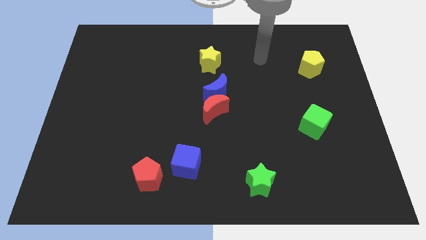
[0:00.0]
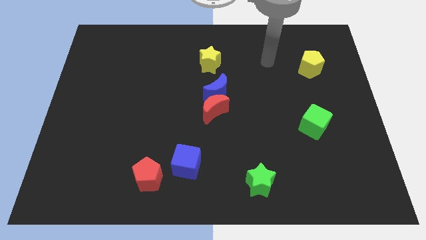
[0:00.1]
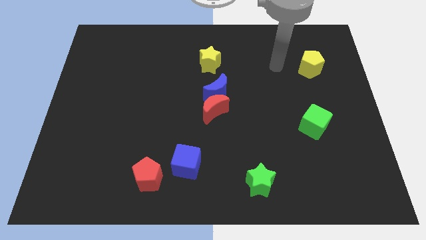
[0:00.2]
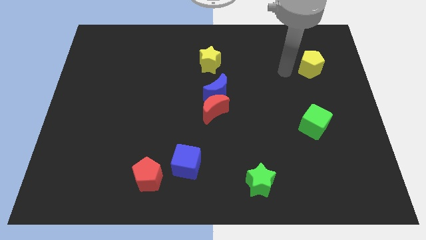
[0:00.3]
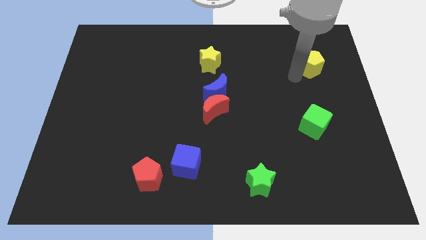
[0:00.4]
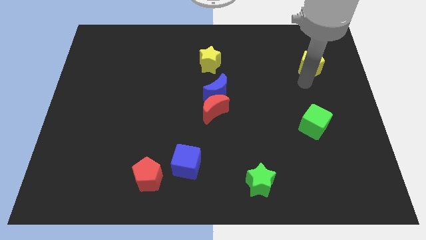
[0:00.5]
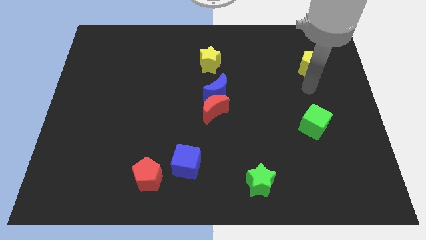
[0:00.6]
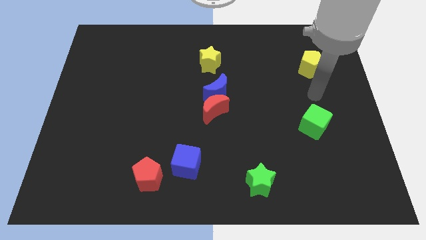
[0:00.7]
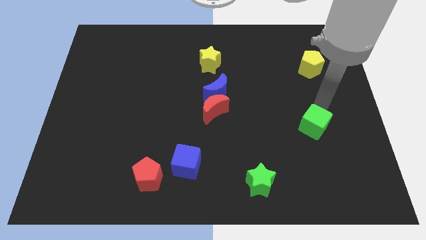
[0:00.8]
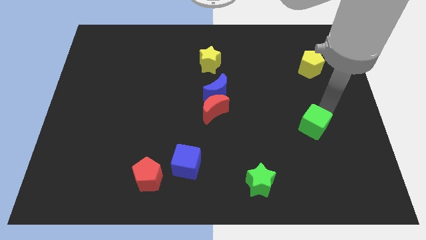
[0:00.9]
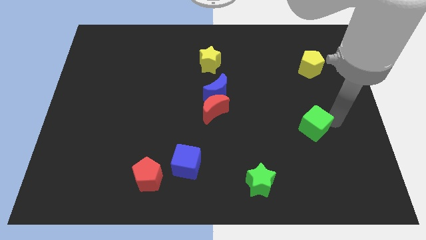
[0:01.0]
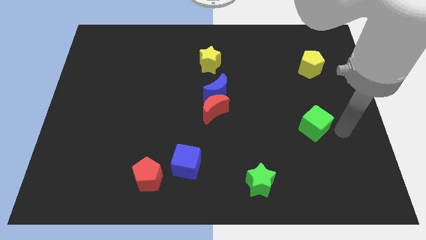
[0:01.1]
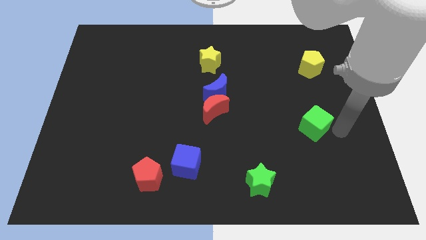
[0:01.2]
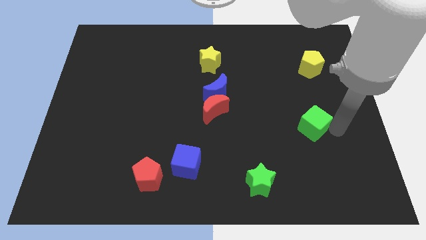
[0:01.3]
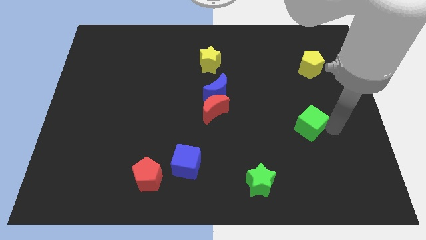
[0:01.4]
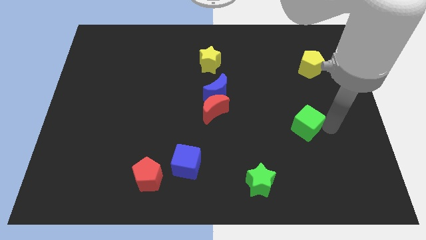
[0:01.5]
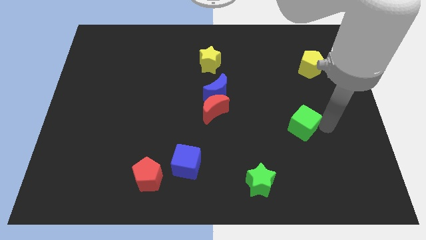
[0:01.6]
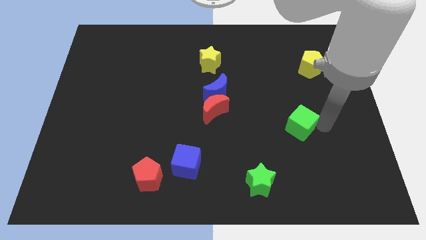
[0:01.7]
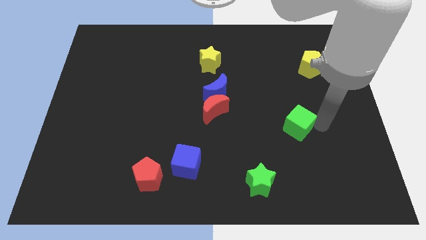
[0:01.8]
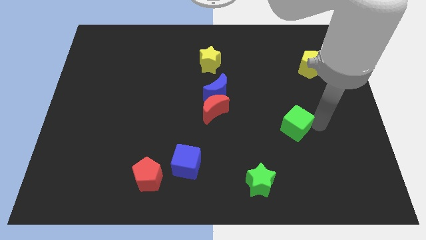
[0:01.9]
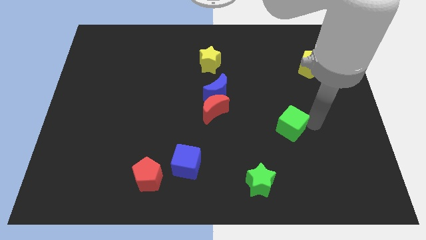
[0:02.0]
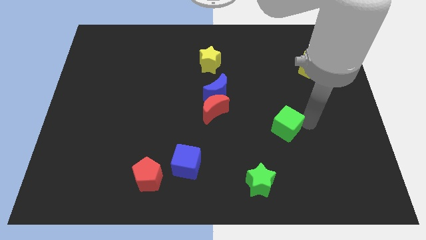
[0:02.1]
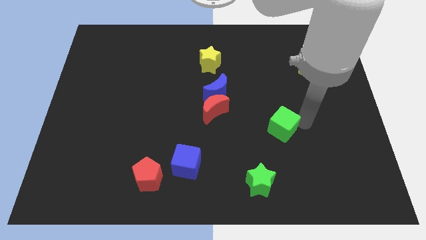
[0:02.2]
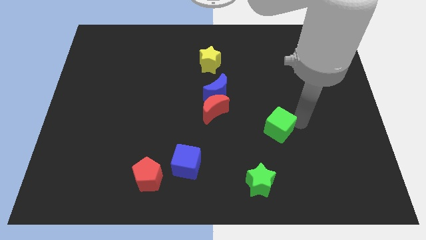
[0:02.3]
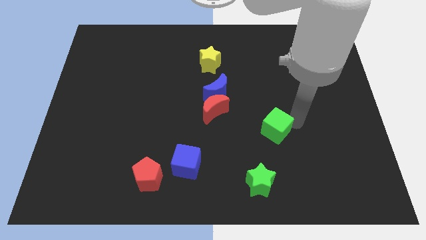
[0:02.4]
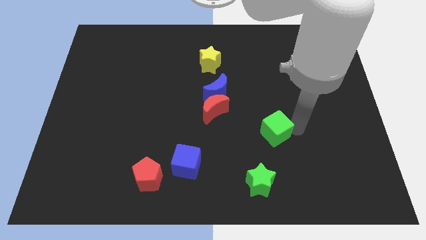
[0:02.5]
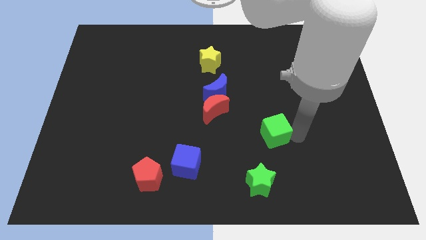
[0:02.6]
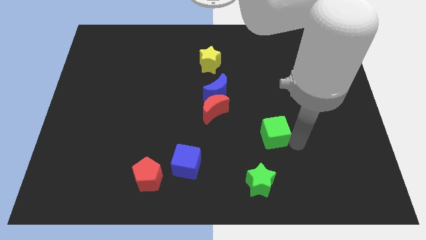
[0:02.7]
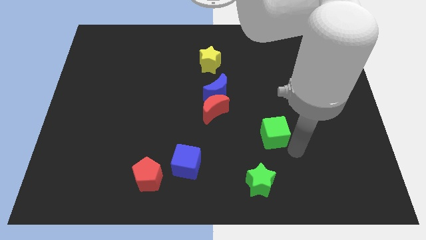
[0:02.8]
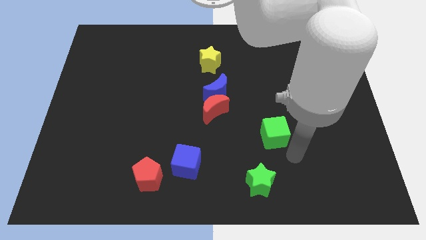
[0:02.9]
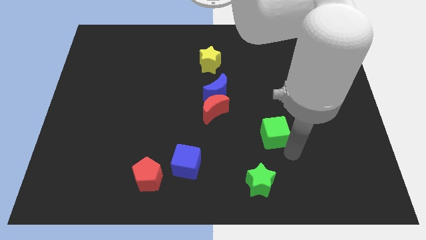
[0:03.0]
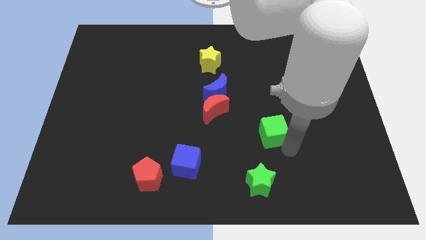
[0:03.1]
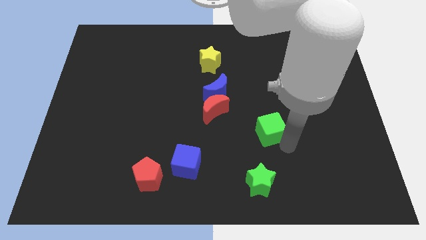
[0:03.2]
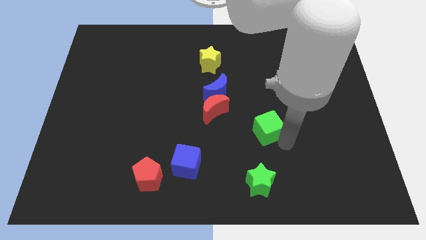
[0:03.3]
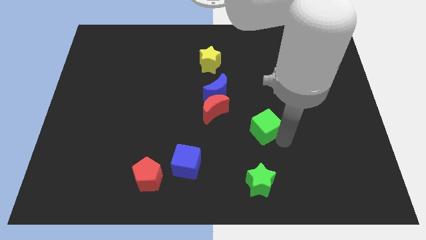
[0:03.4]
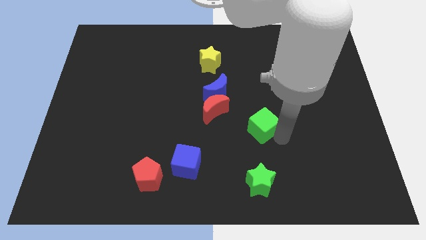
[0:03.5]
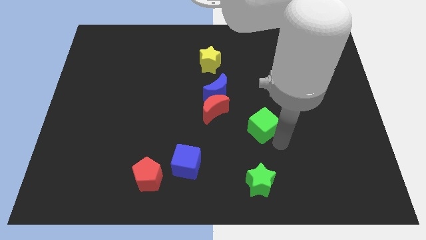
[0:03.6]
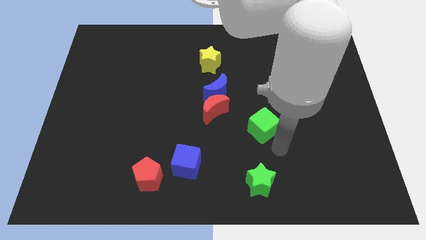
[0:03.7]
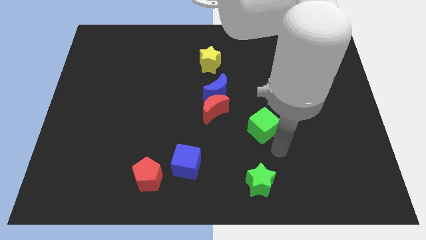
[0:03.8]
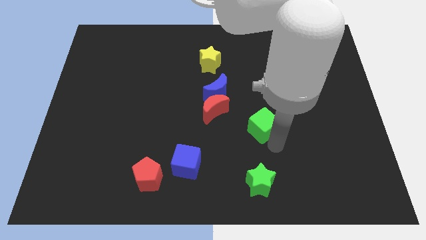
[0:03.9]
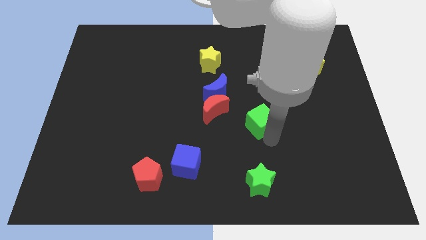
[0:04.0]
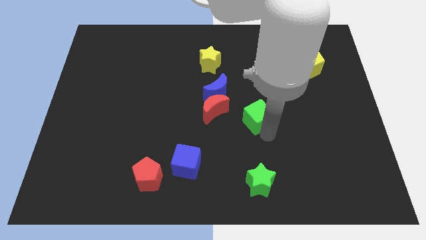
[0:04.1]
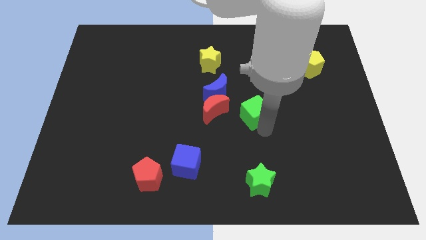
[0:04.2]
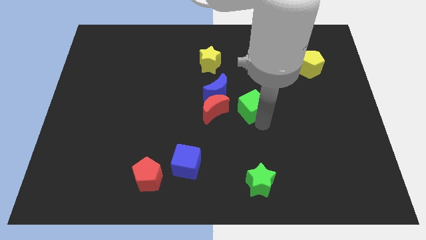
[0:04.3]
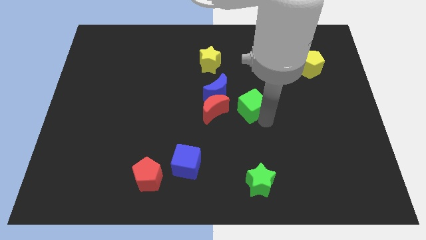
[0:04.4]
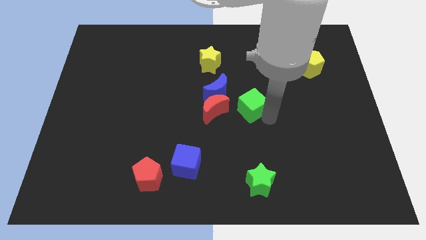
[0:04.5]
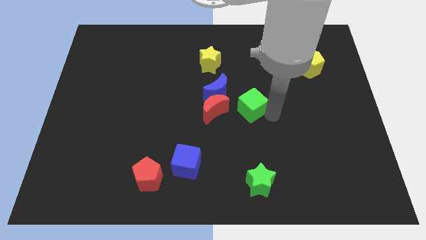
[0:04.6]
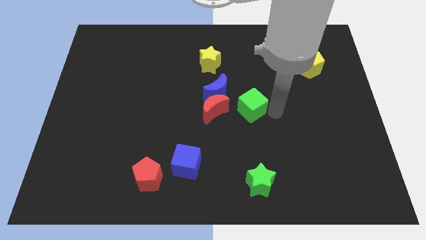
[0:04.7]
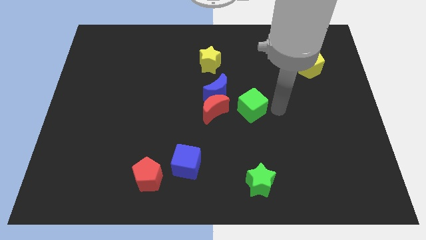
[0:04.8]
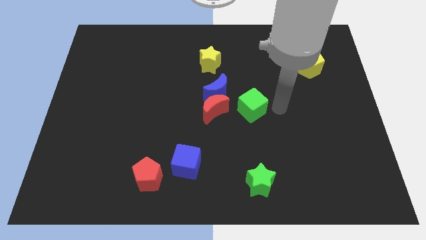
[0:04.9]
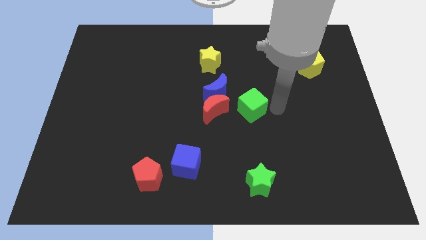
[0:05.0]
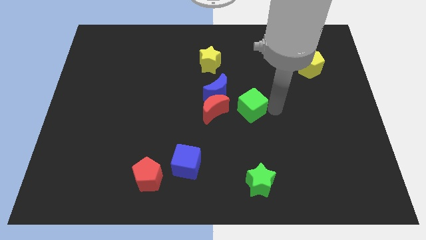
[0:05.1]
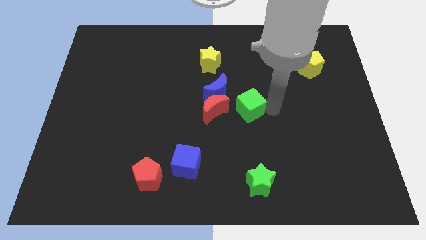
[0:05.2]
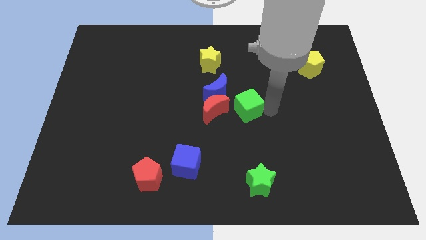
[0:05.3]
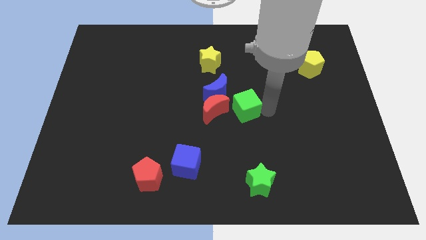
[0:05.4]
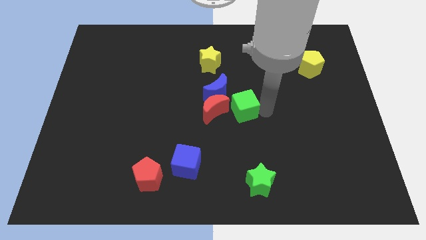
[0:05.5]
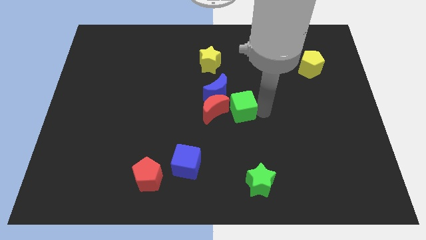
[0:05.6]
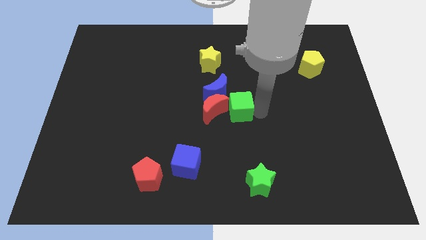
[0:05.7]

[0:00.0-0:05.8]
move the green cube towards the red moon

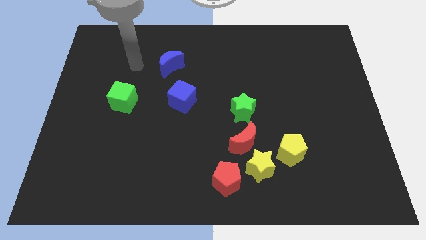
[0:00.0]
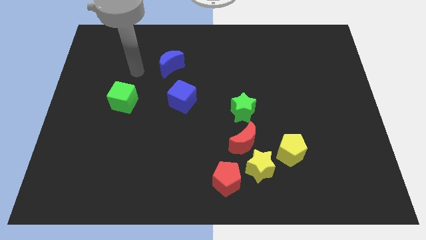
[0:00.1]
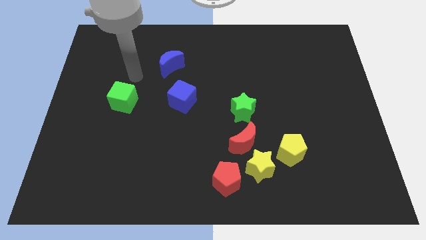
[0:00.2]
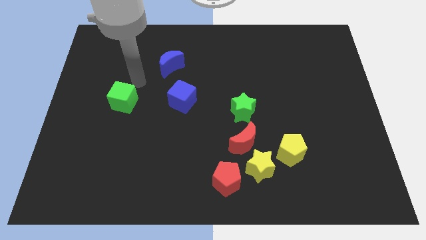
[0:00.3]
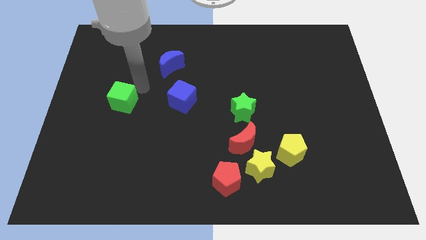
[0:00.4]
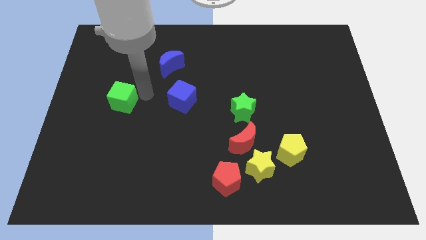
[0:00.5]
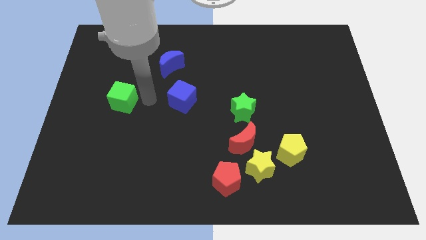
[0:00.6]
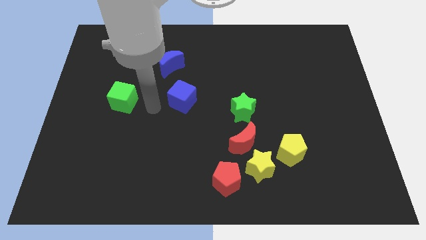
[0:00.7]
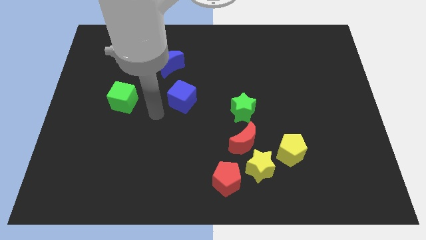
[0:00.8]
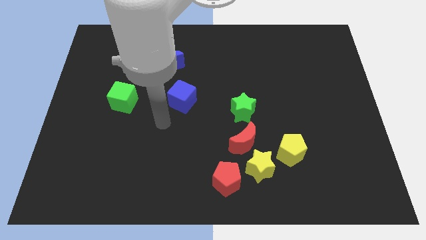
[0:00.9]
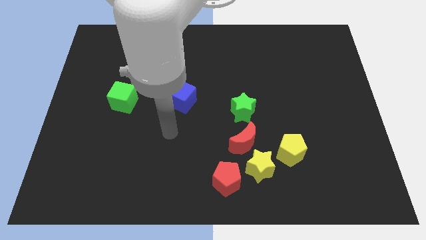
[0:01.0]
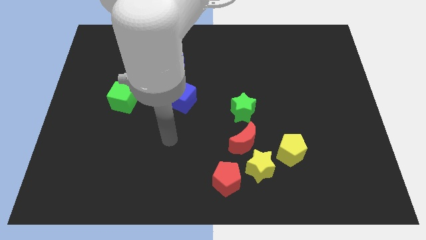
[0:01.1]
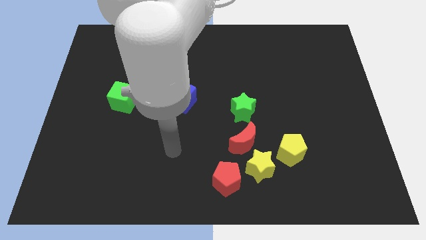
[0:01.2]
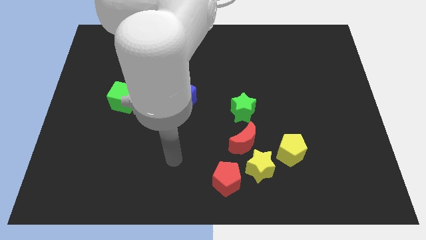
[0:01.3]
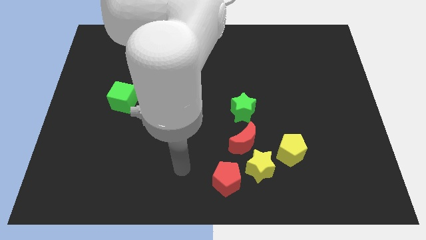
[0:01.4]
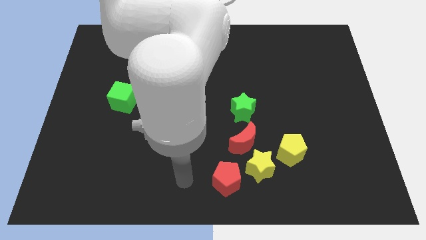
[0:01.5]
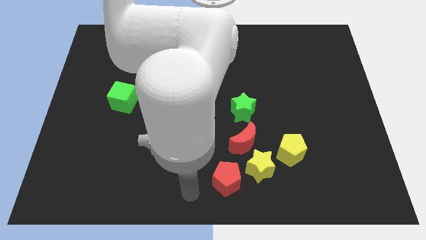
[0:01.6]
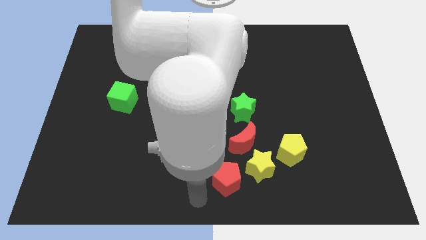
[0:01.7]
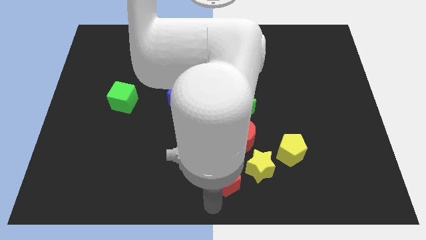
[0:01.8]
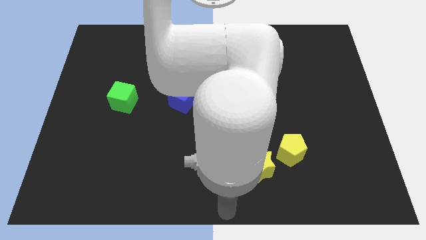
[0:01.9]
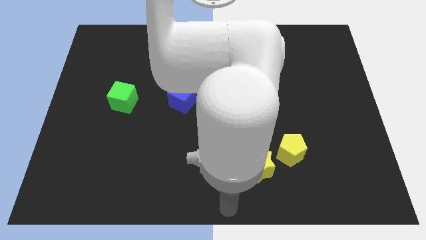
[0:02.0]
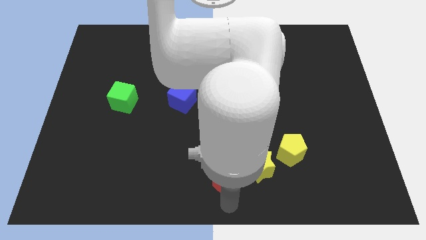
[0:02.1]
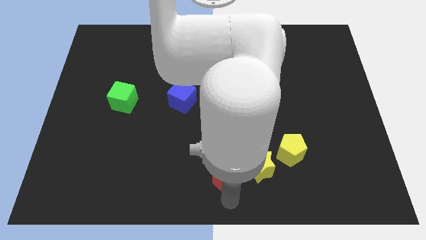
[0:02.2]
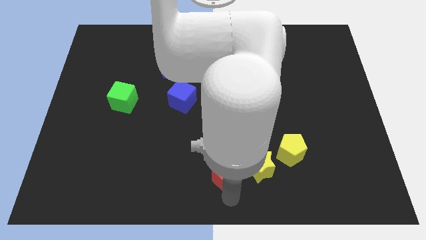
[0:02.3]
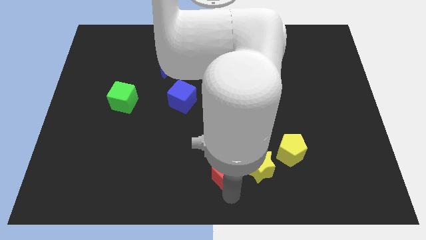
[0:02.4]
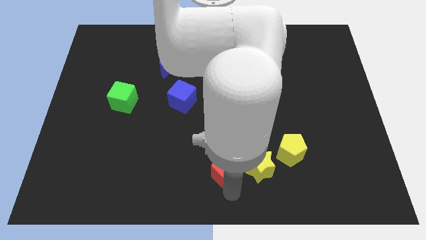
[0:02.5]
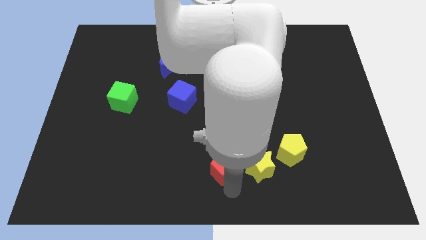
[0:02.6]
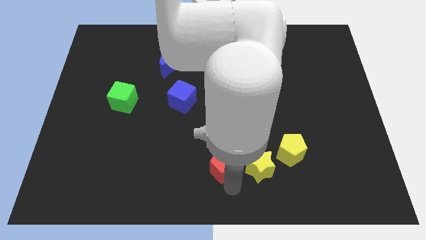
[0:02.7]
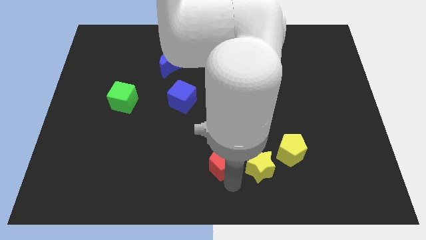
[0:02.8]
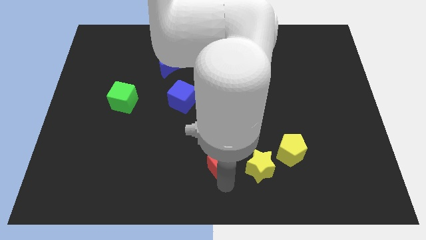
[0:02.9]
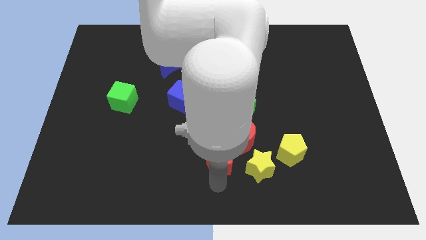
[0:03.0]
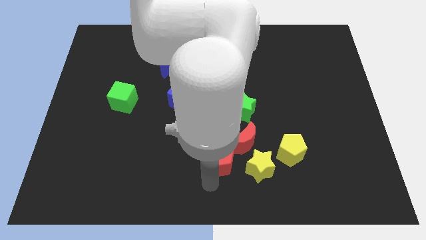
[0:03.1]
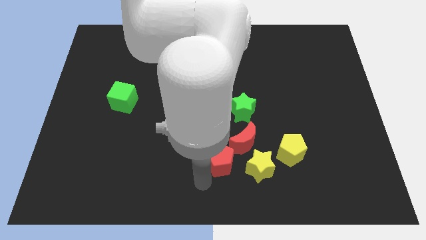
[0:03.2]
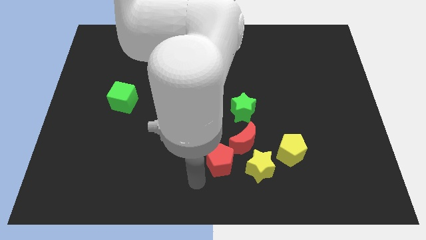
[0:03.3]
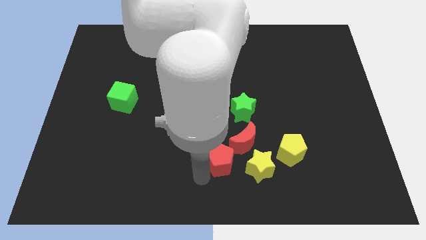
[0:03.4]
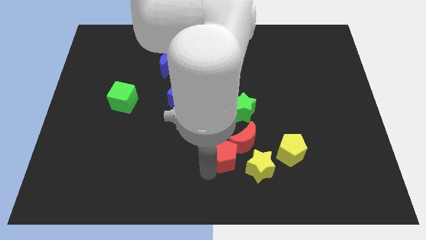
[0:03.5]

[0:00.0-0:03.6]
slide the red pentagon next to the red moon
